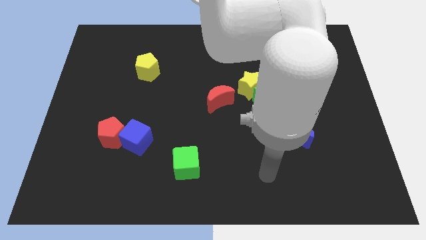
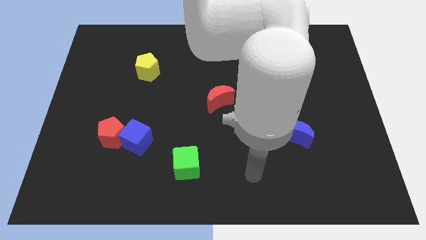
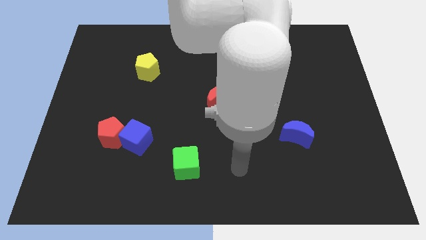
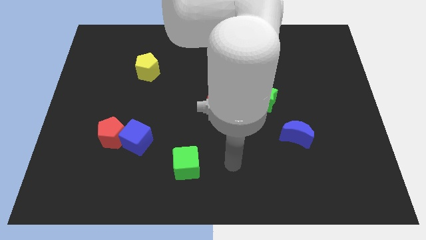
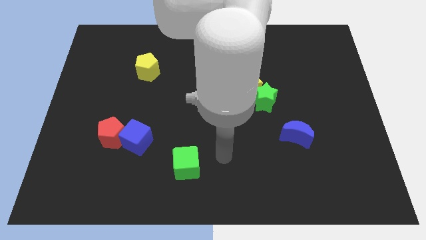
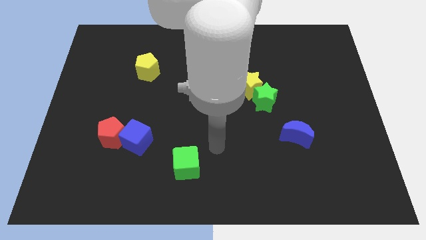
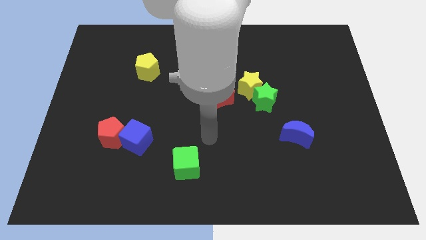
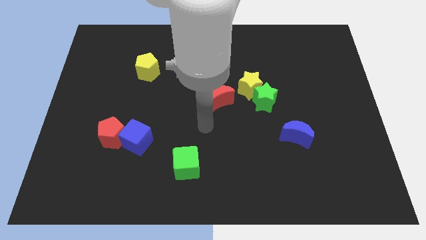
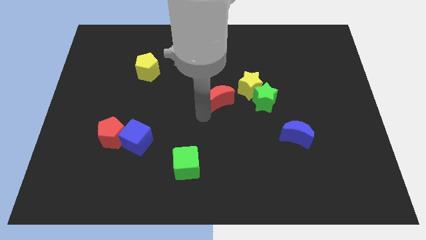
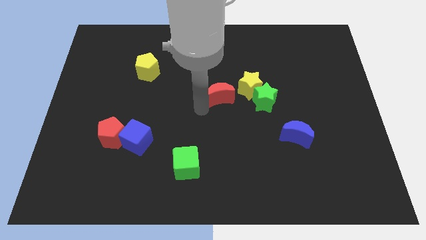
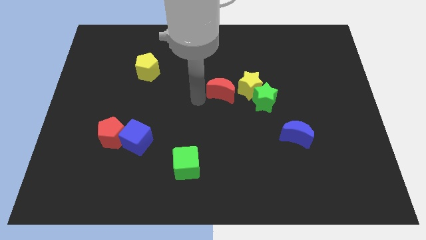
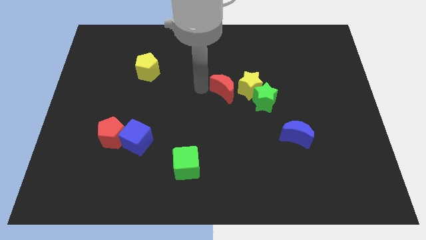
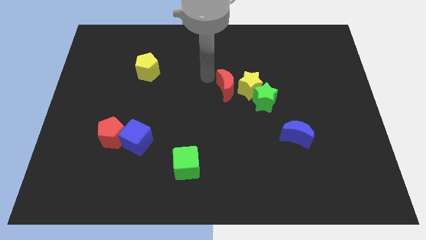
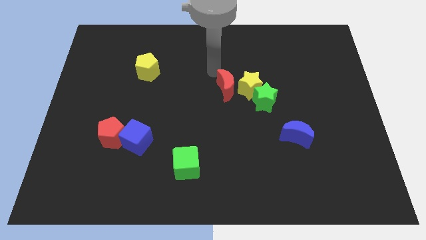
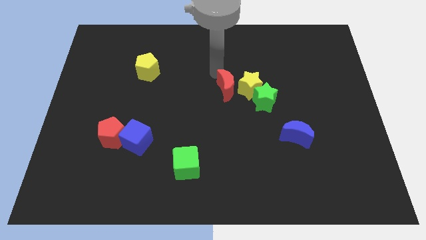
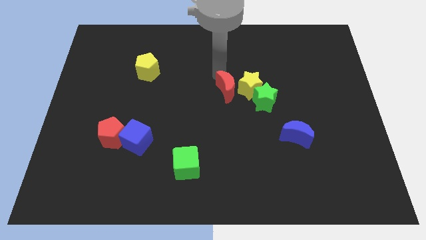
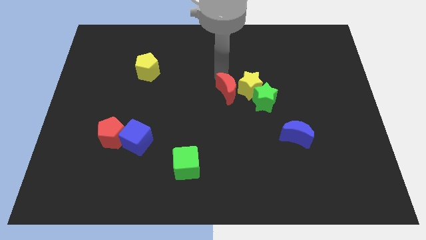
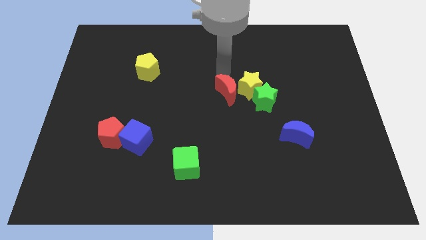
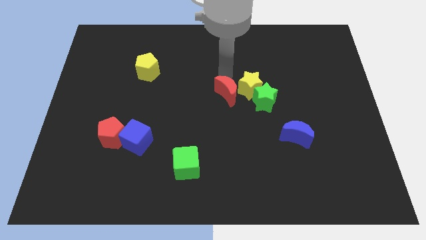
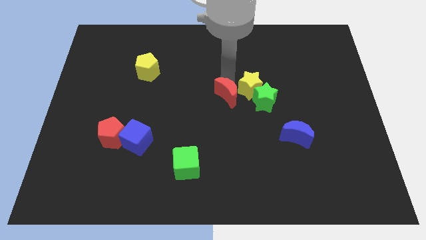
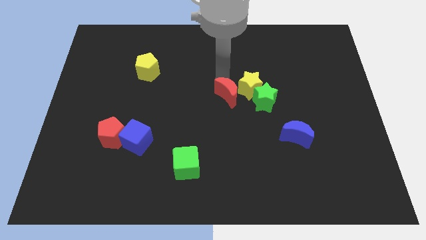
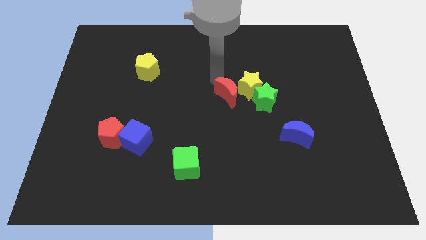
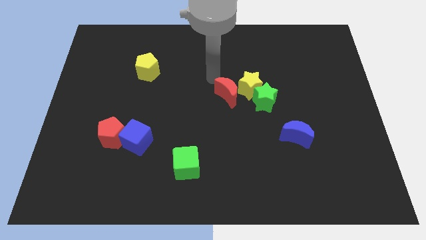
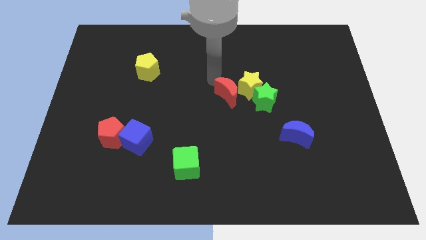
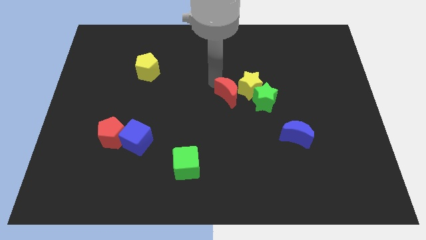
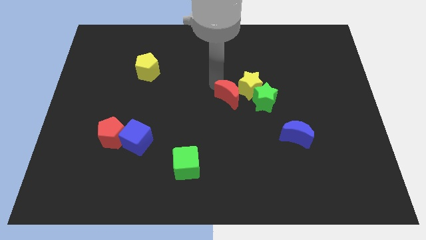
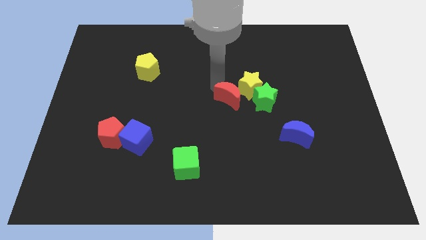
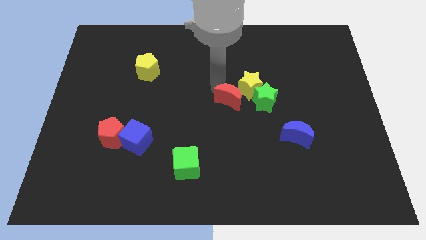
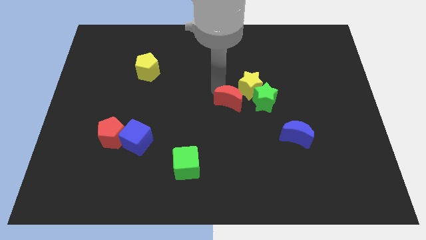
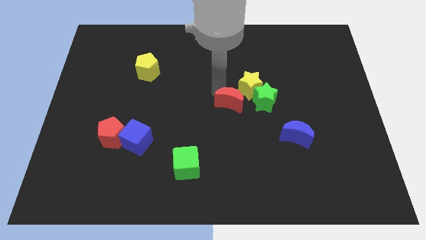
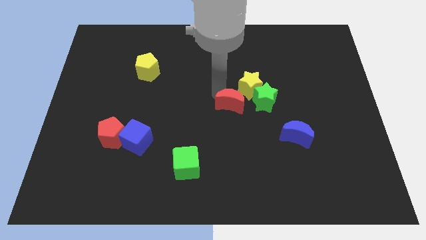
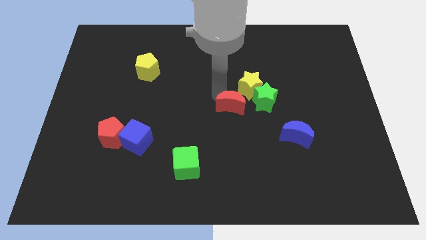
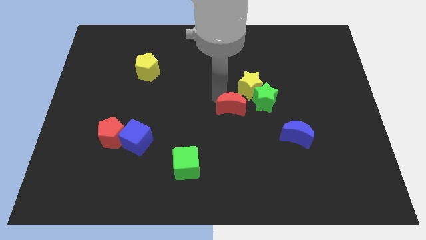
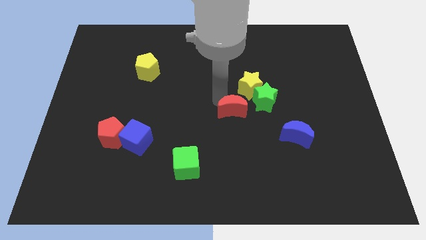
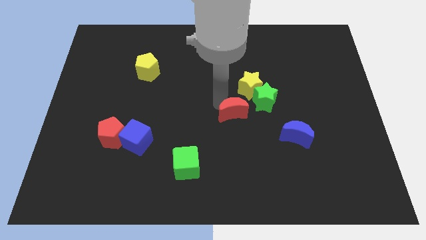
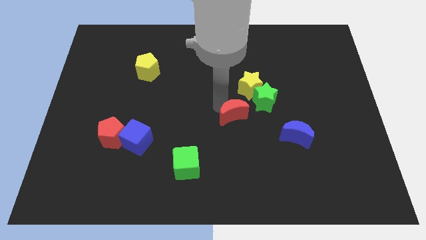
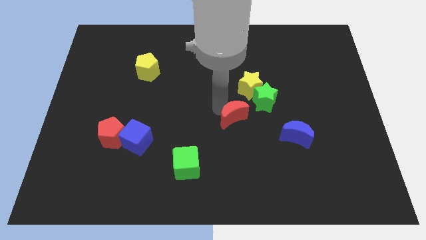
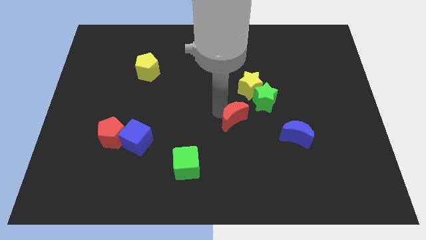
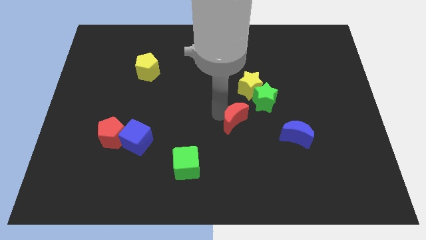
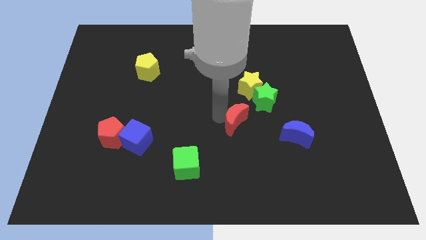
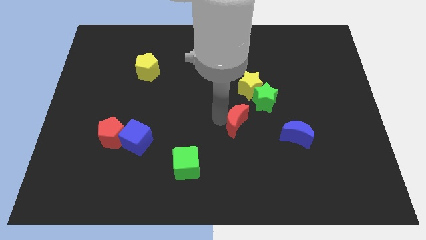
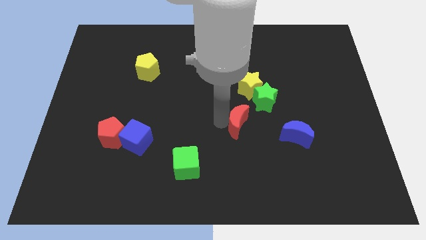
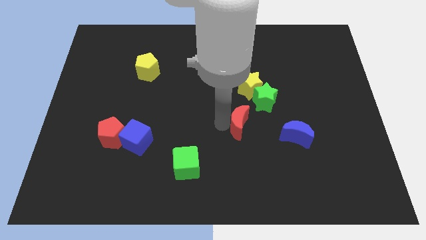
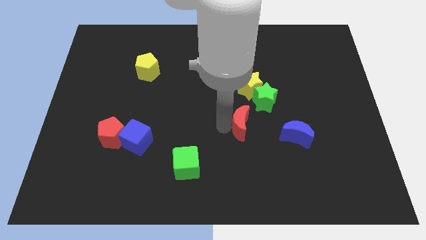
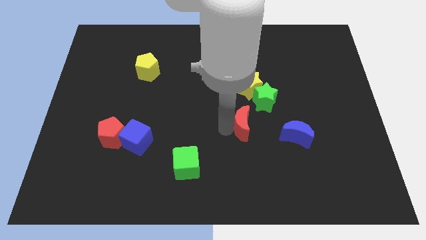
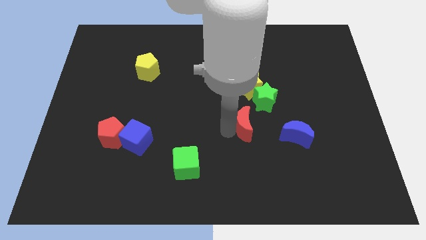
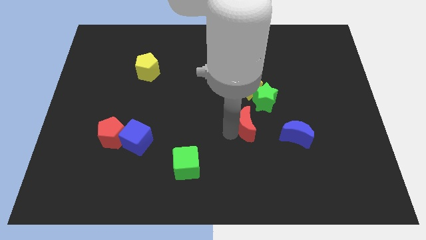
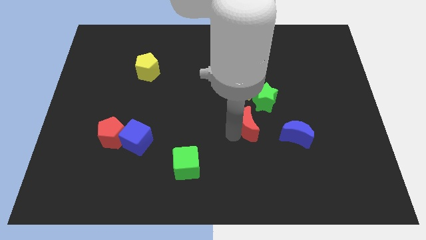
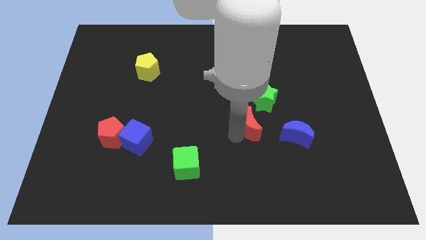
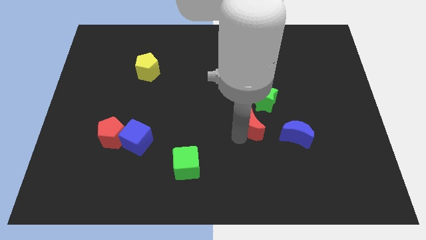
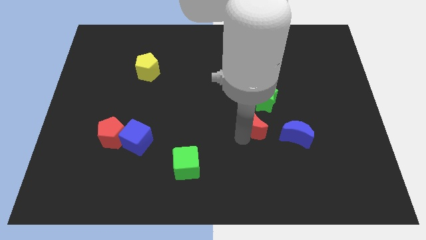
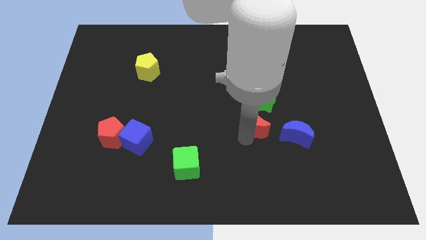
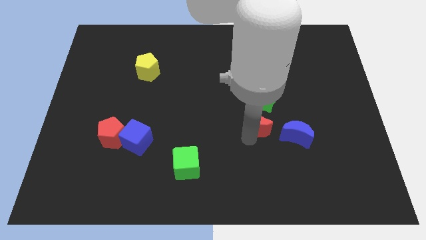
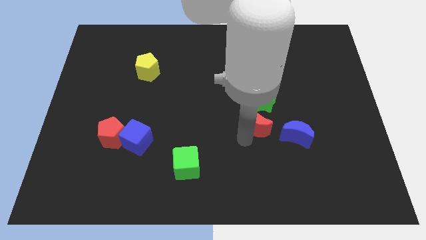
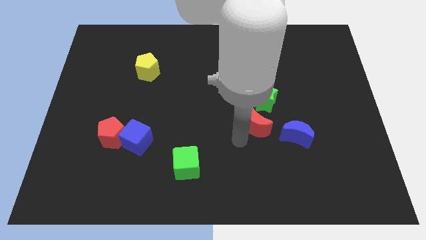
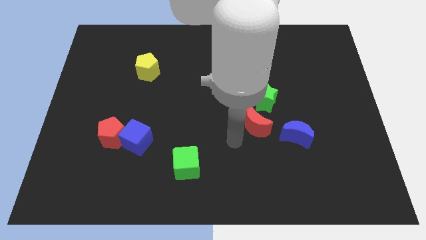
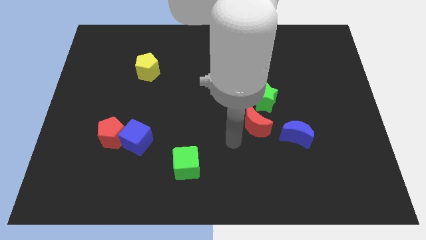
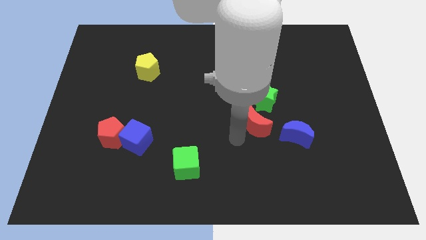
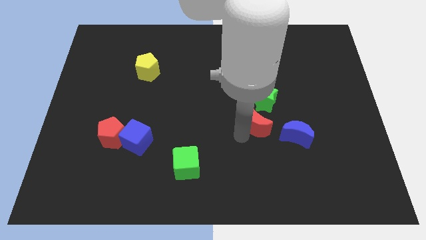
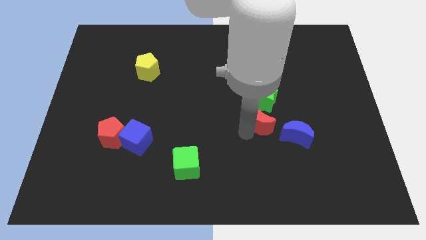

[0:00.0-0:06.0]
move the red moon slightly right

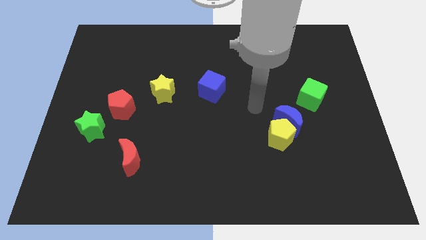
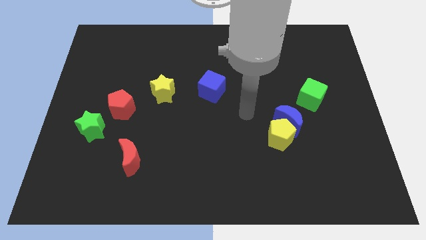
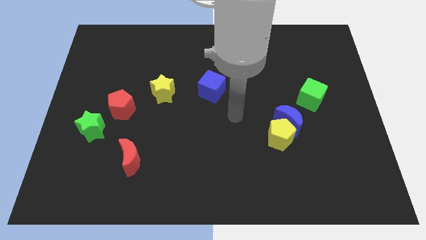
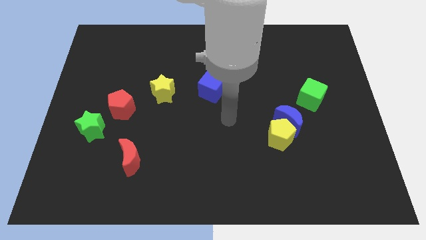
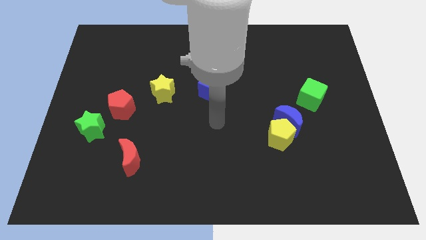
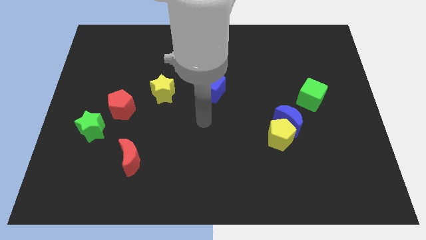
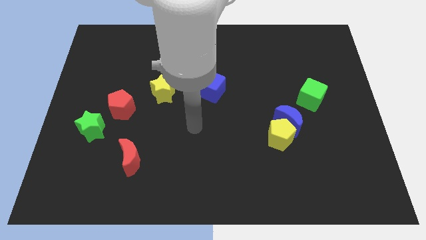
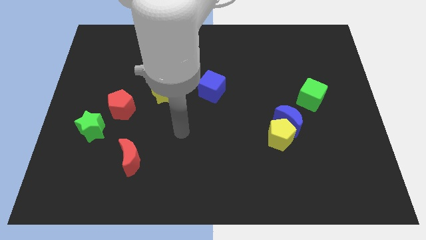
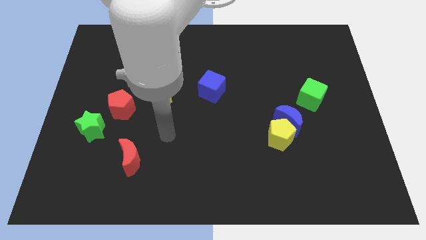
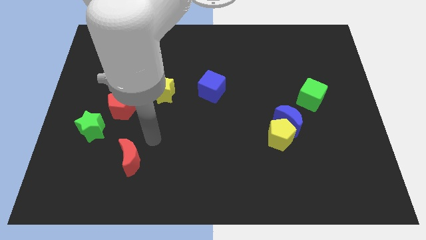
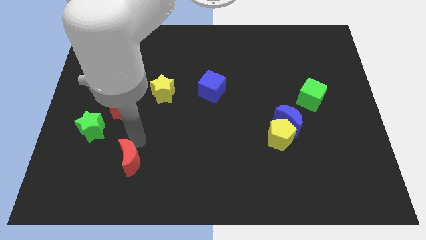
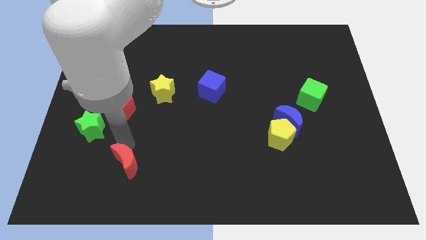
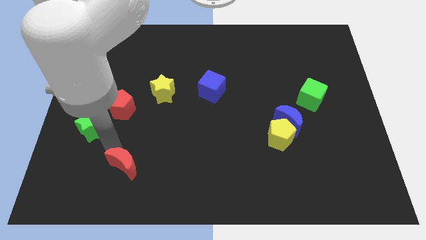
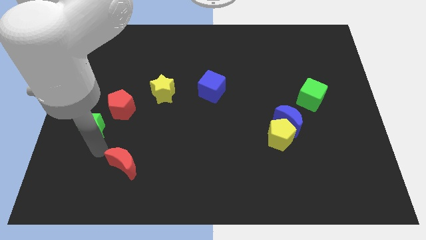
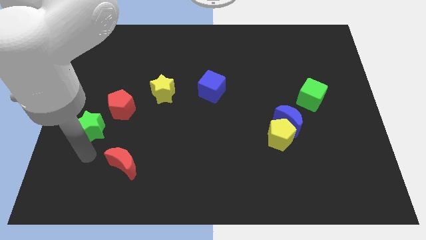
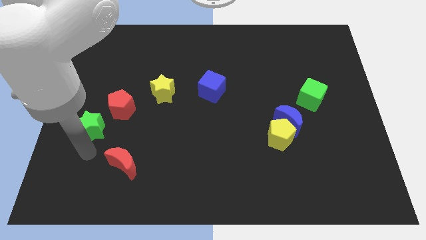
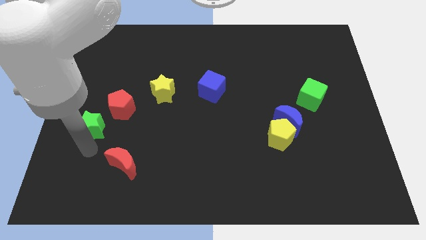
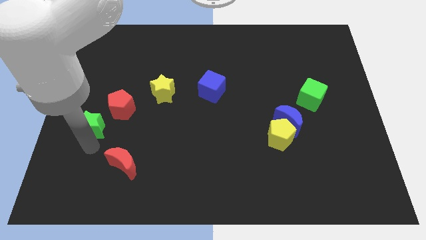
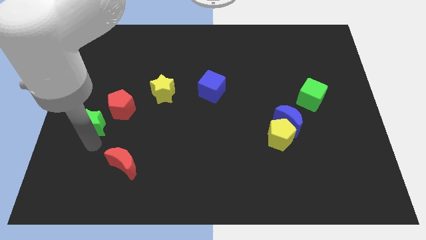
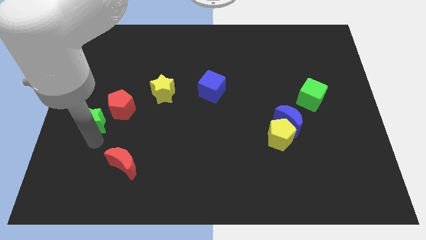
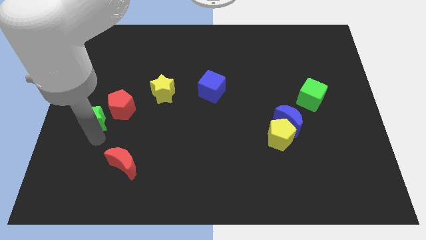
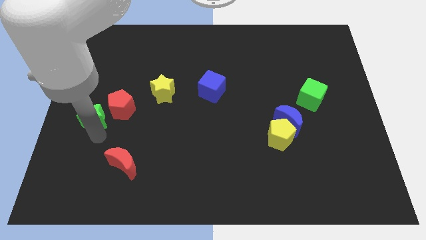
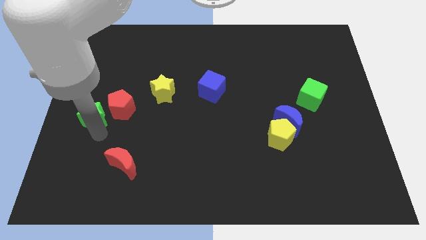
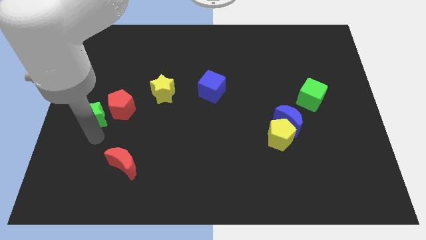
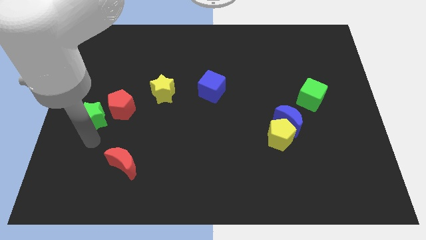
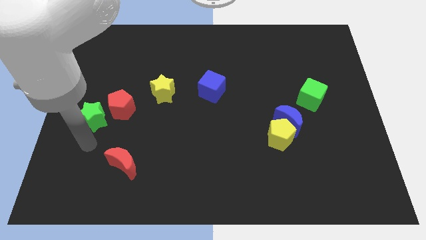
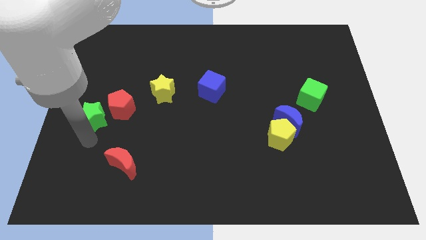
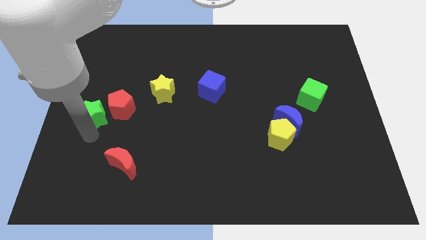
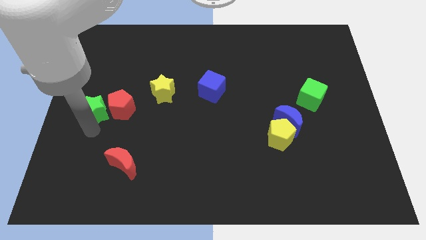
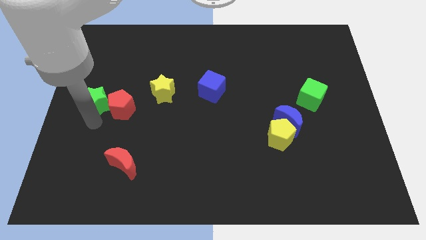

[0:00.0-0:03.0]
push the green star upwards a little bit
